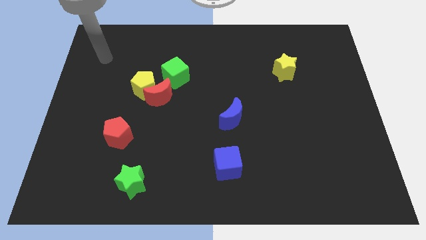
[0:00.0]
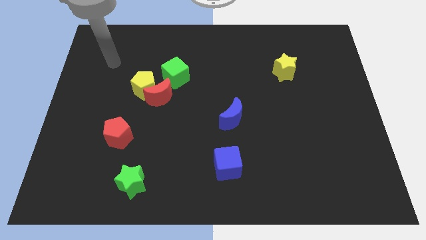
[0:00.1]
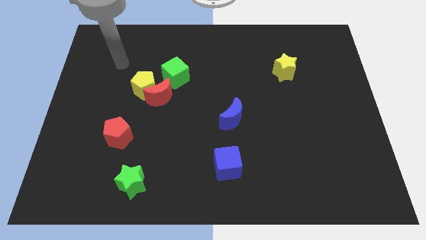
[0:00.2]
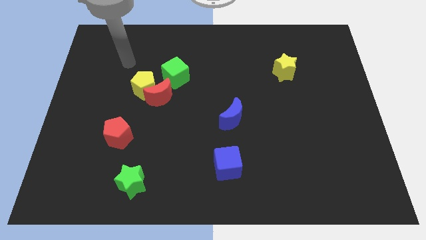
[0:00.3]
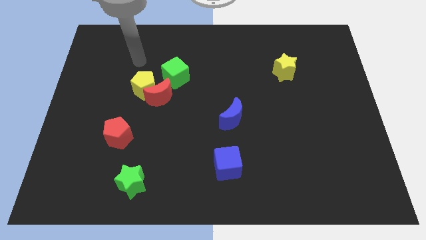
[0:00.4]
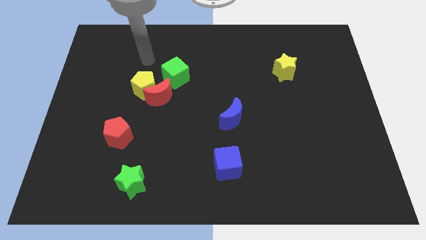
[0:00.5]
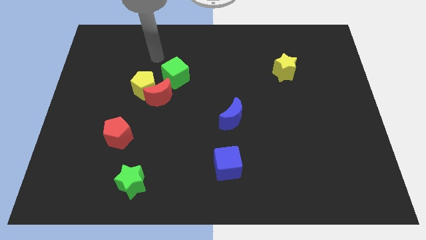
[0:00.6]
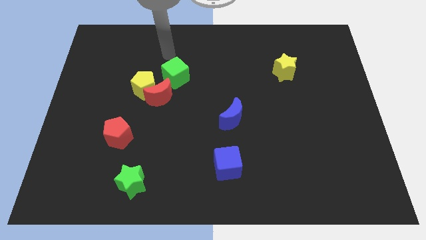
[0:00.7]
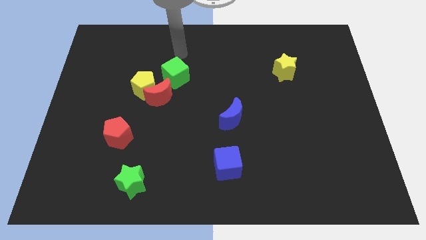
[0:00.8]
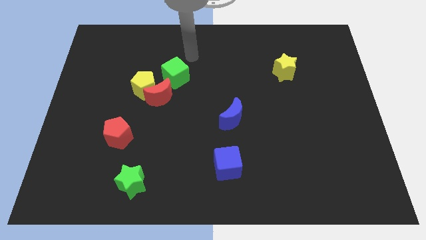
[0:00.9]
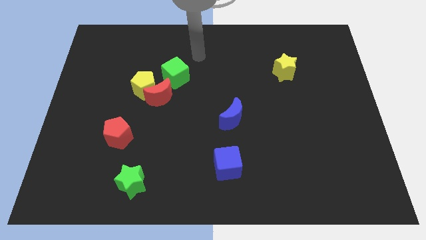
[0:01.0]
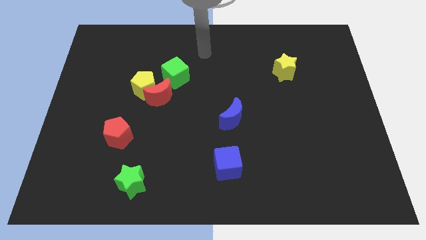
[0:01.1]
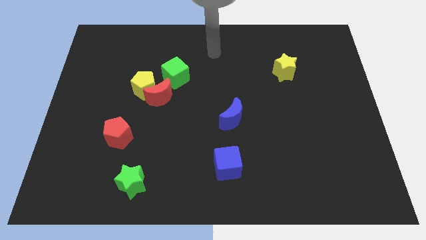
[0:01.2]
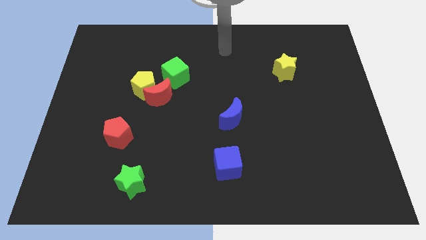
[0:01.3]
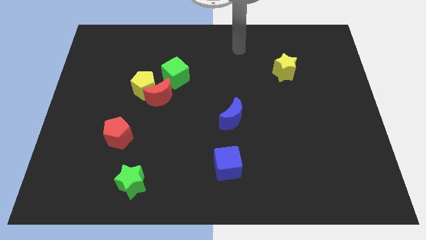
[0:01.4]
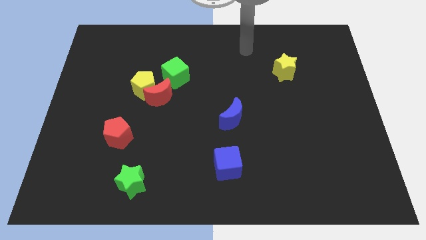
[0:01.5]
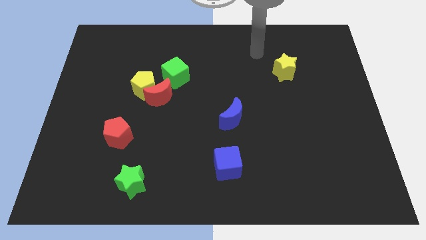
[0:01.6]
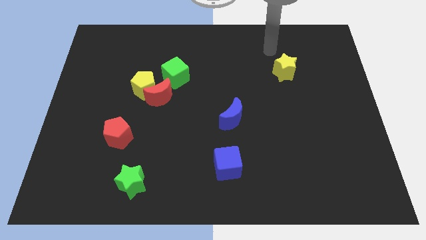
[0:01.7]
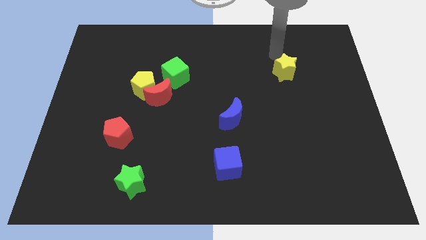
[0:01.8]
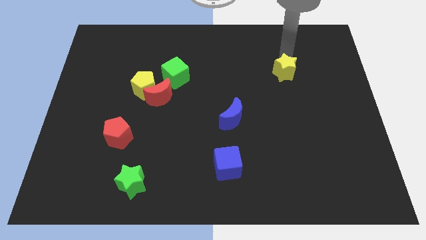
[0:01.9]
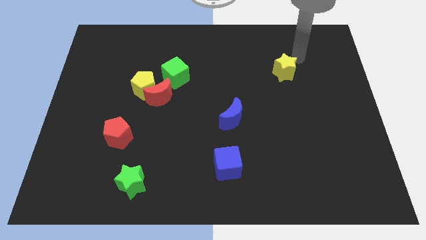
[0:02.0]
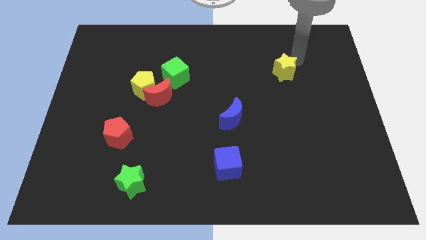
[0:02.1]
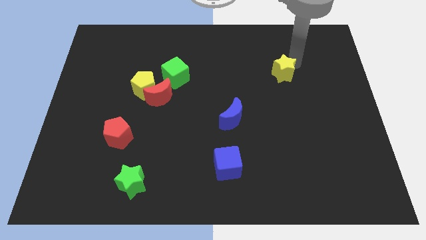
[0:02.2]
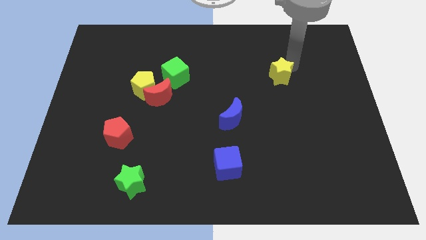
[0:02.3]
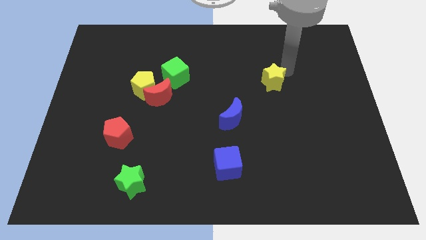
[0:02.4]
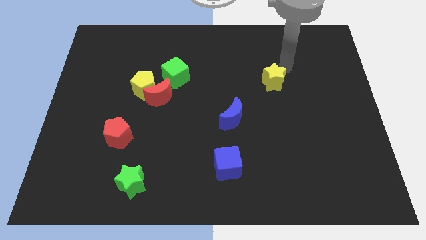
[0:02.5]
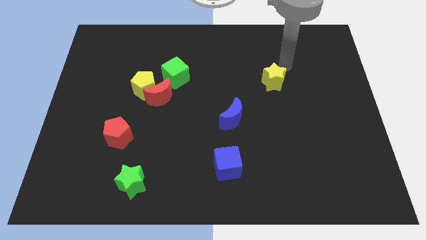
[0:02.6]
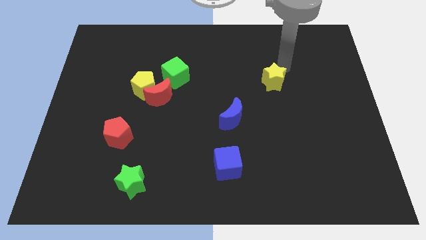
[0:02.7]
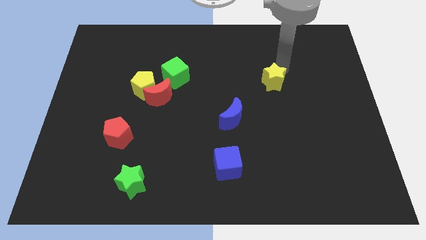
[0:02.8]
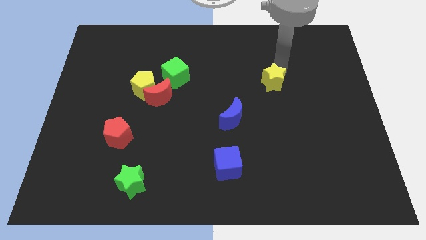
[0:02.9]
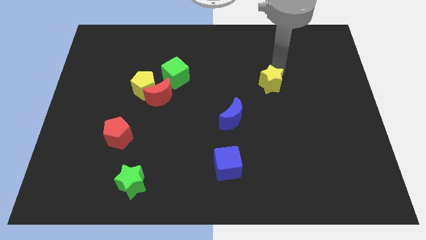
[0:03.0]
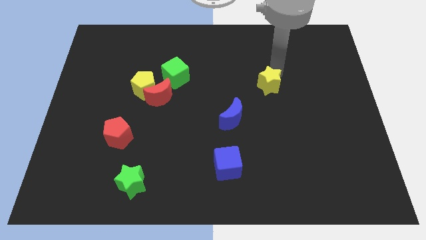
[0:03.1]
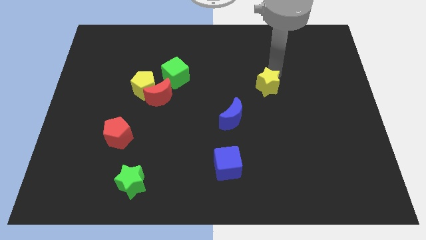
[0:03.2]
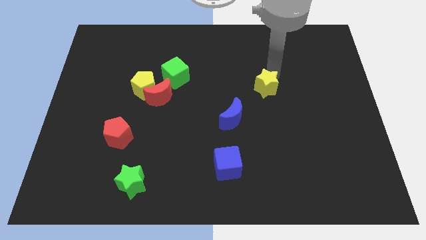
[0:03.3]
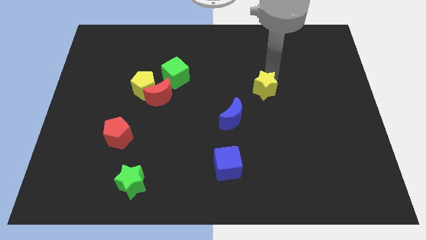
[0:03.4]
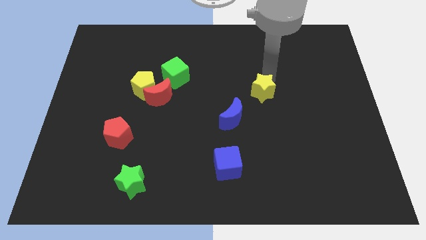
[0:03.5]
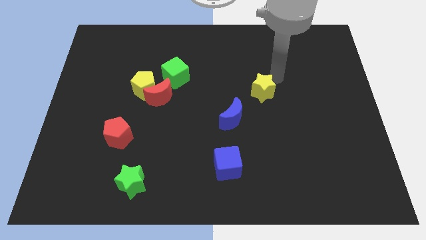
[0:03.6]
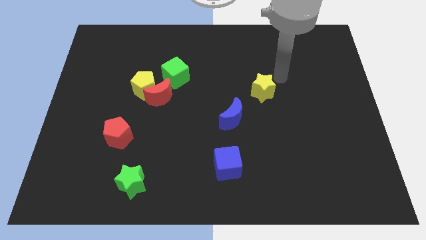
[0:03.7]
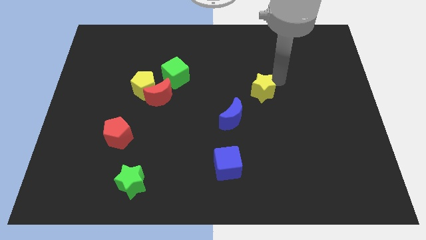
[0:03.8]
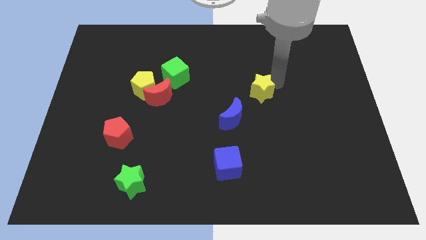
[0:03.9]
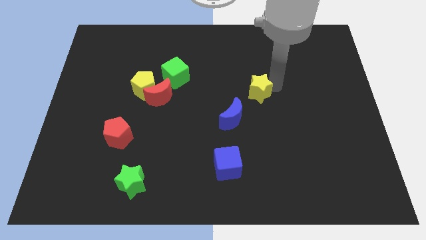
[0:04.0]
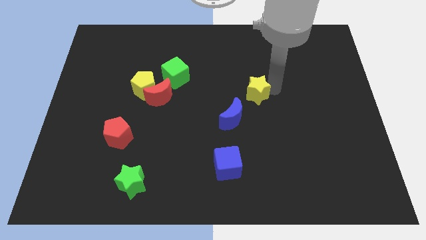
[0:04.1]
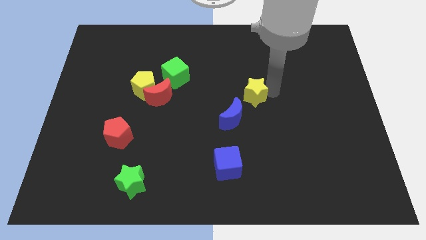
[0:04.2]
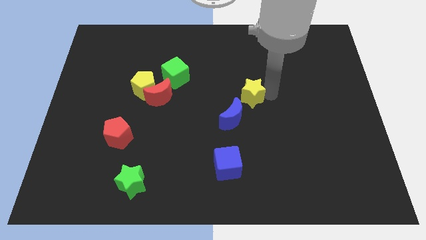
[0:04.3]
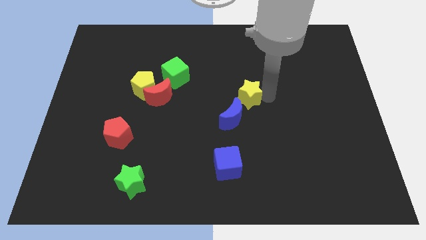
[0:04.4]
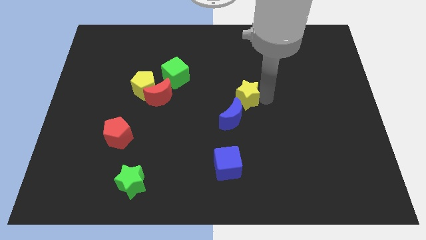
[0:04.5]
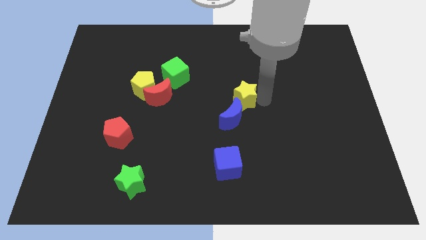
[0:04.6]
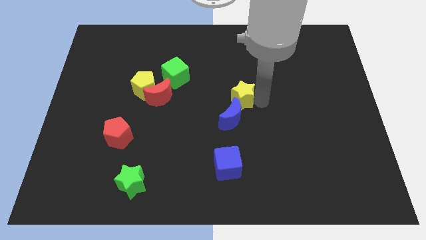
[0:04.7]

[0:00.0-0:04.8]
push the yellow star towards the blue moon

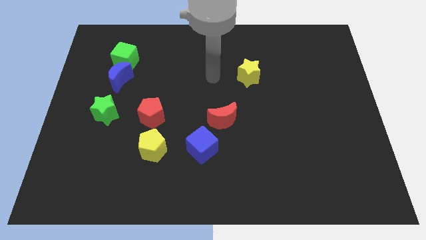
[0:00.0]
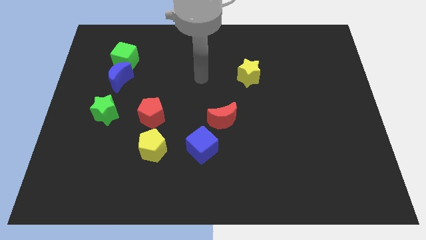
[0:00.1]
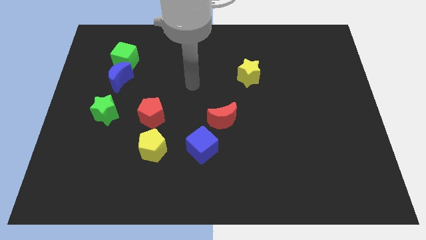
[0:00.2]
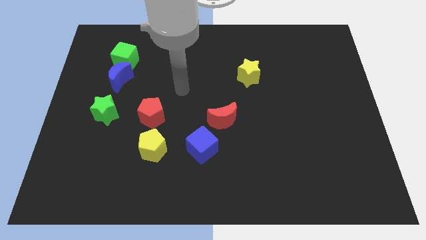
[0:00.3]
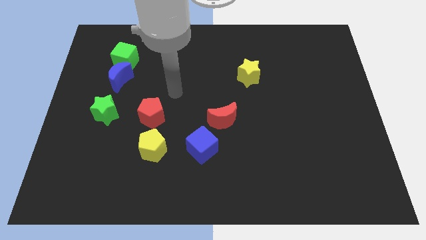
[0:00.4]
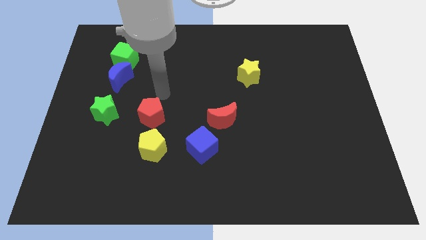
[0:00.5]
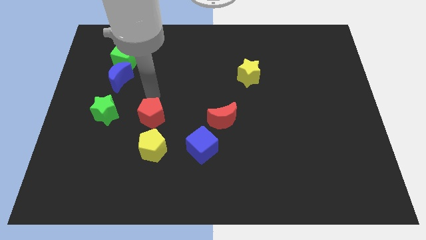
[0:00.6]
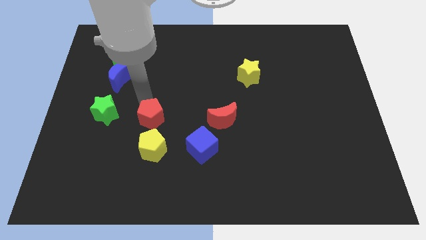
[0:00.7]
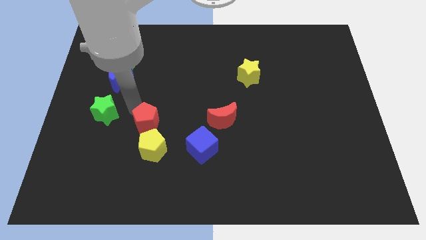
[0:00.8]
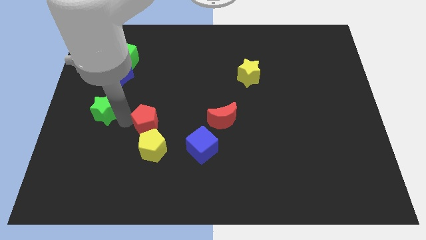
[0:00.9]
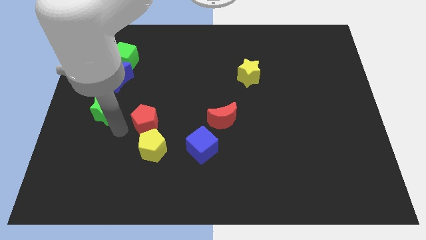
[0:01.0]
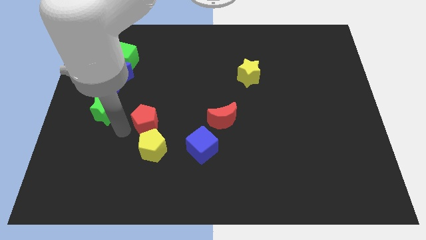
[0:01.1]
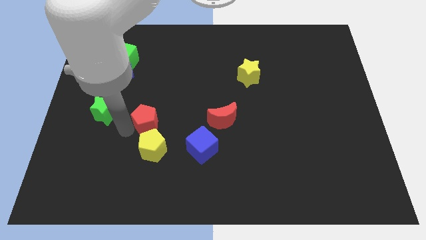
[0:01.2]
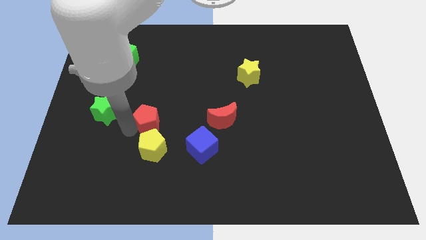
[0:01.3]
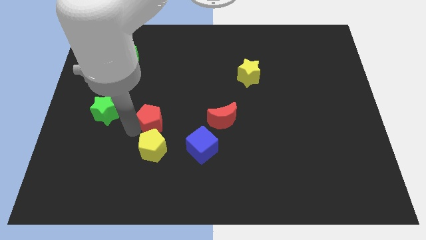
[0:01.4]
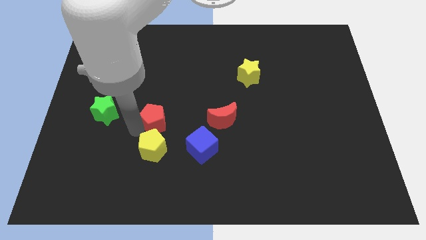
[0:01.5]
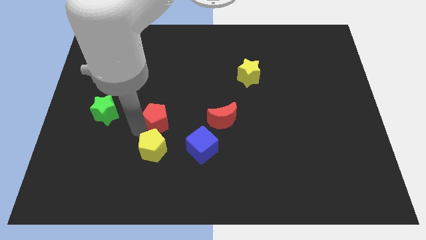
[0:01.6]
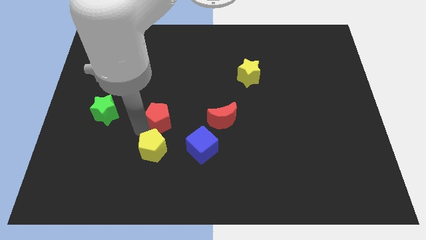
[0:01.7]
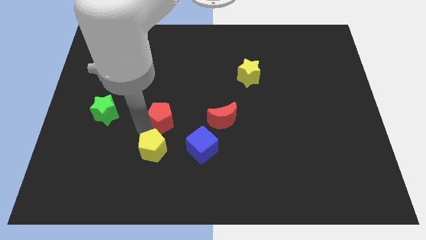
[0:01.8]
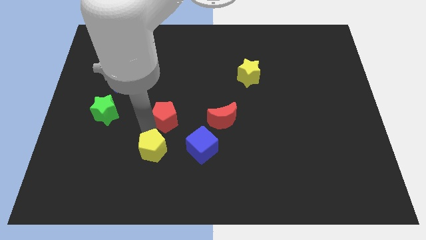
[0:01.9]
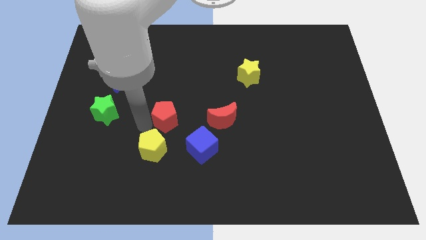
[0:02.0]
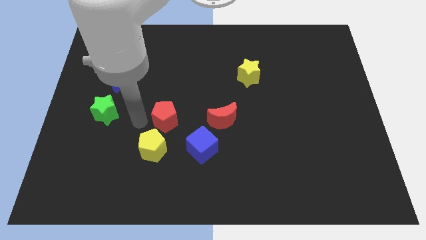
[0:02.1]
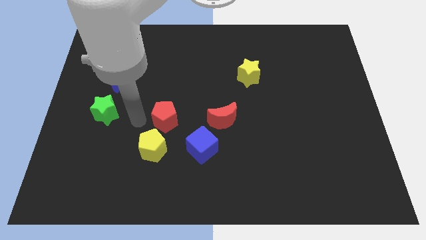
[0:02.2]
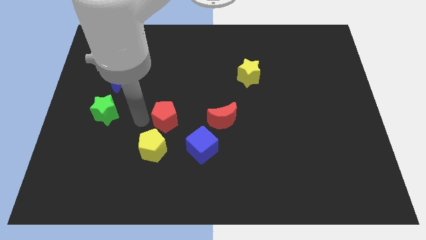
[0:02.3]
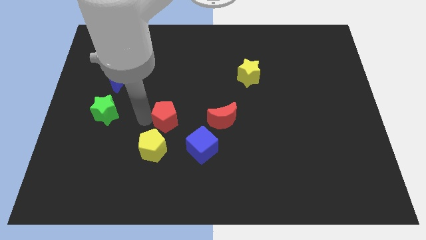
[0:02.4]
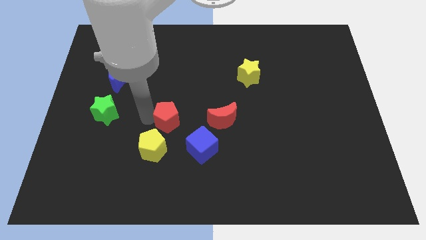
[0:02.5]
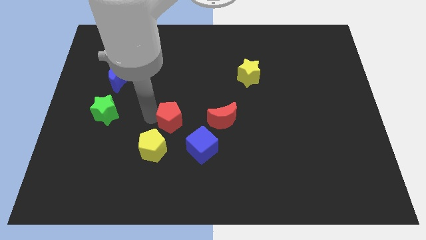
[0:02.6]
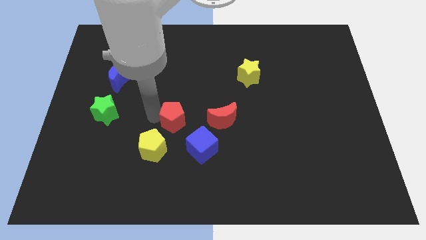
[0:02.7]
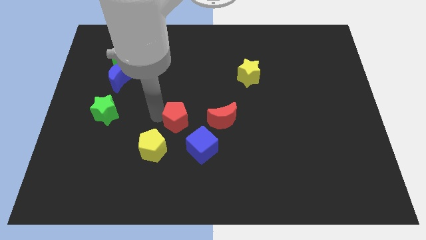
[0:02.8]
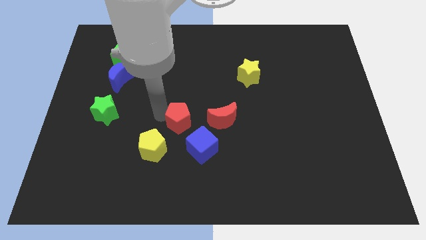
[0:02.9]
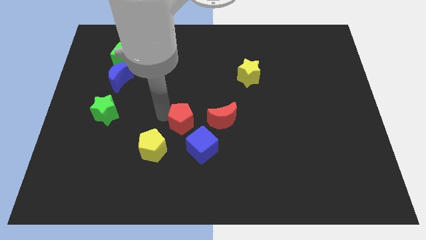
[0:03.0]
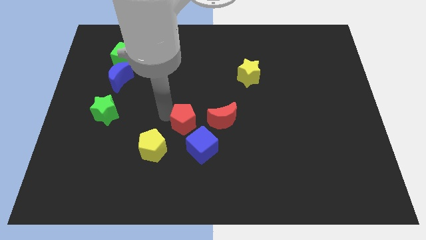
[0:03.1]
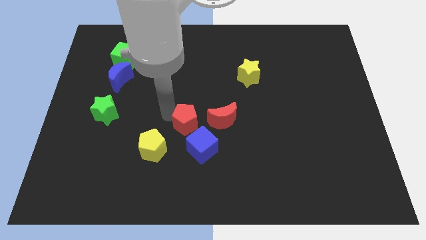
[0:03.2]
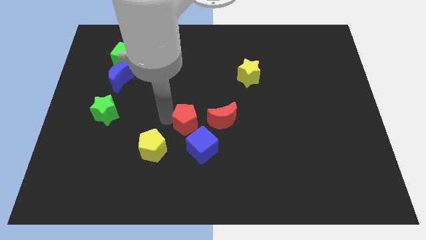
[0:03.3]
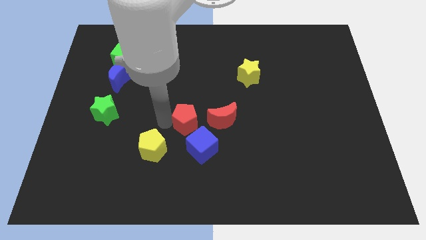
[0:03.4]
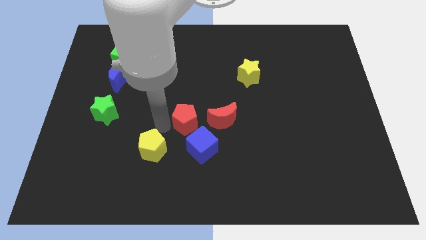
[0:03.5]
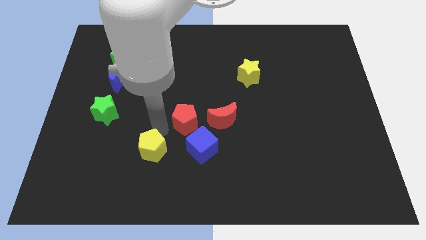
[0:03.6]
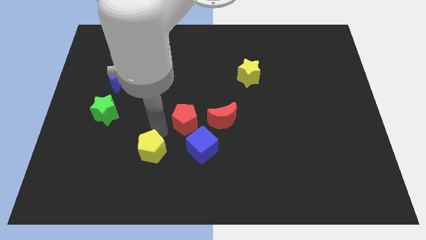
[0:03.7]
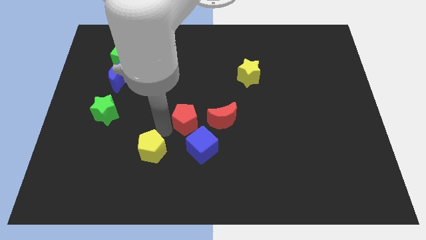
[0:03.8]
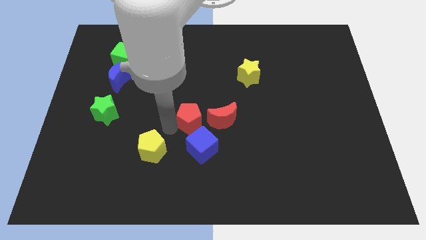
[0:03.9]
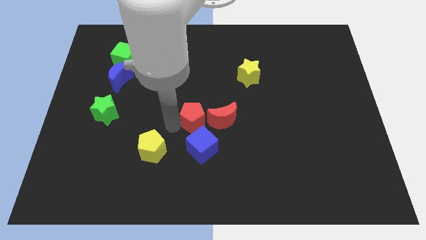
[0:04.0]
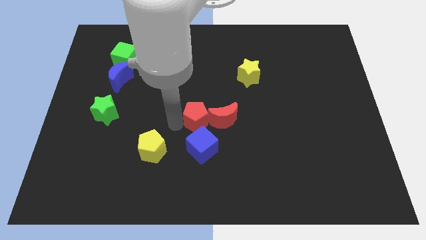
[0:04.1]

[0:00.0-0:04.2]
push the red pentagon towards the red moon
